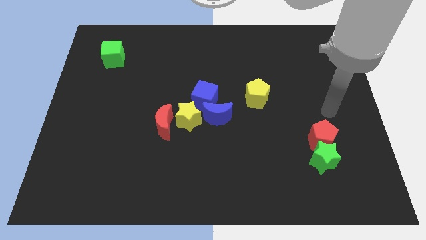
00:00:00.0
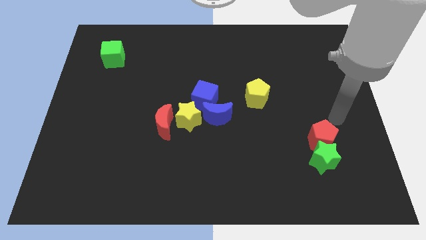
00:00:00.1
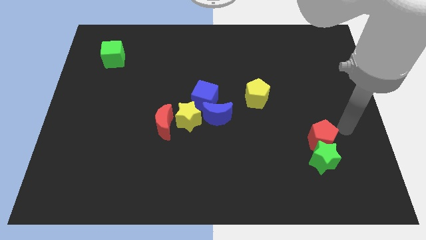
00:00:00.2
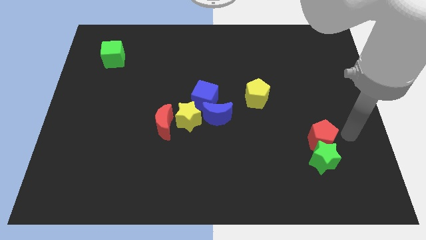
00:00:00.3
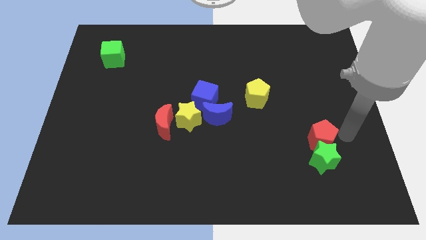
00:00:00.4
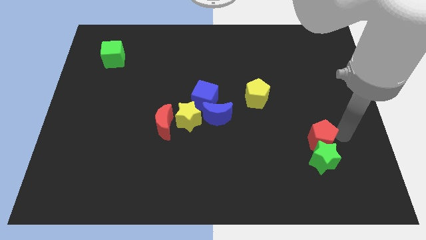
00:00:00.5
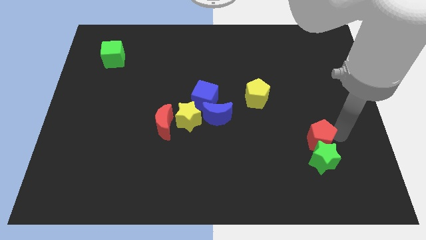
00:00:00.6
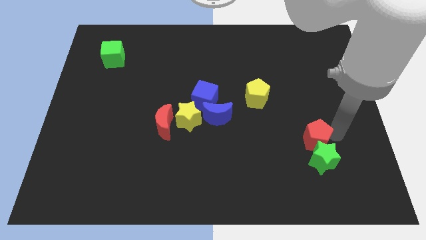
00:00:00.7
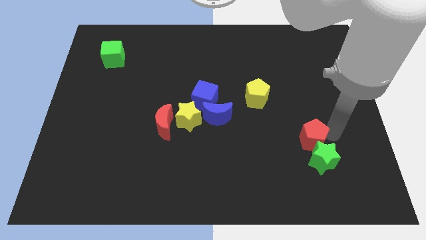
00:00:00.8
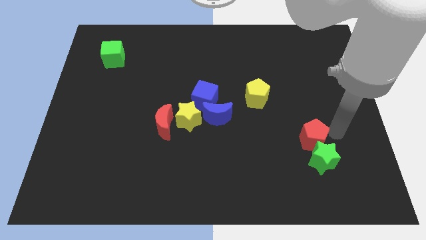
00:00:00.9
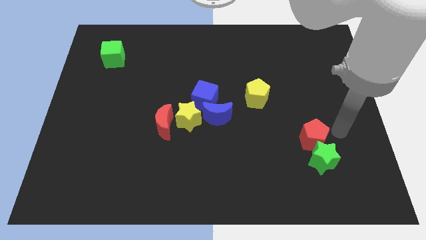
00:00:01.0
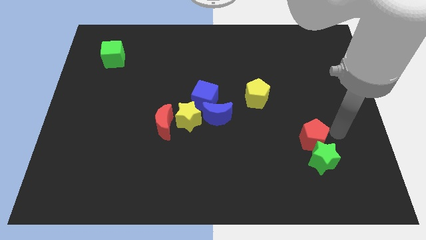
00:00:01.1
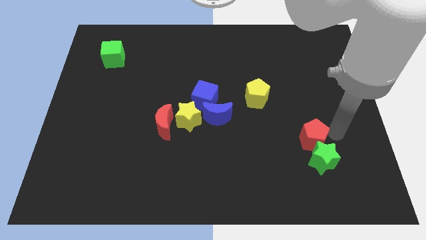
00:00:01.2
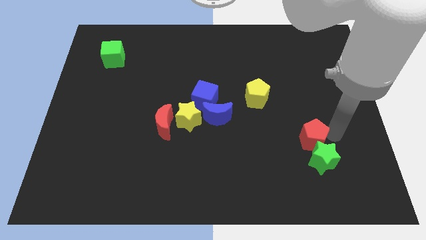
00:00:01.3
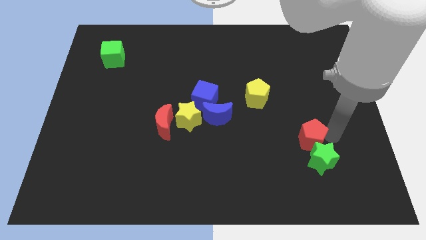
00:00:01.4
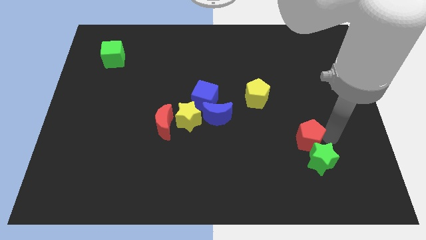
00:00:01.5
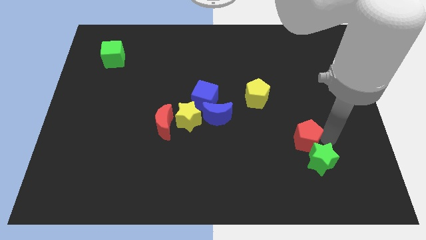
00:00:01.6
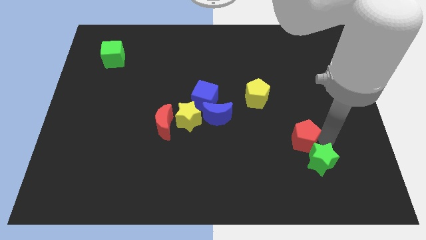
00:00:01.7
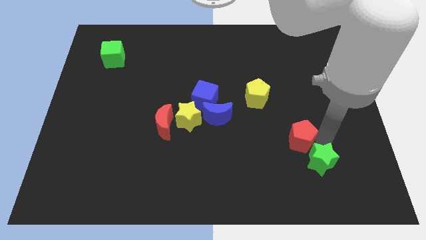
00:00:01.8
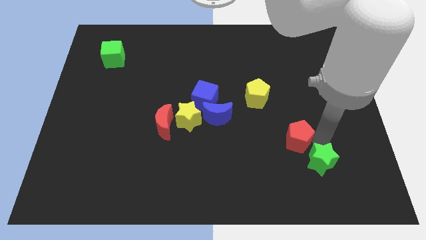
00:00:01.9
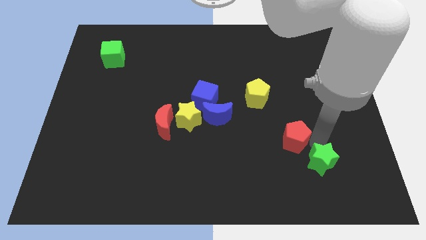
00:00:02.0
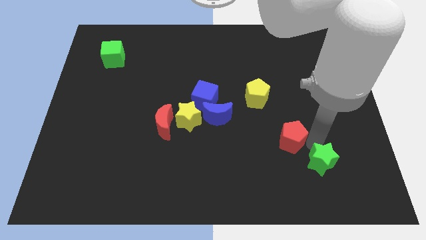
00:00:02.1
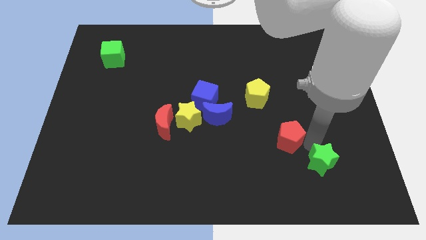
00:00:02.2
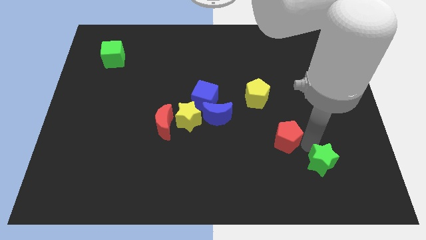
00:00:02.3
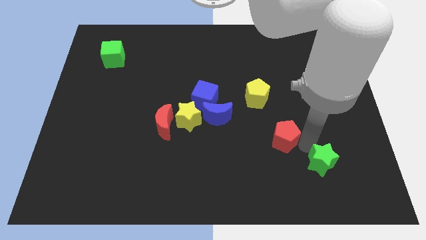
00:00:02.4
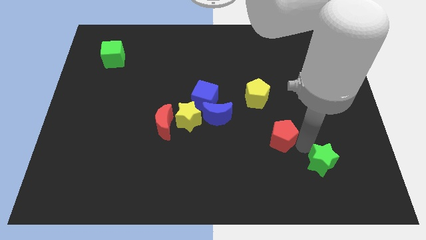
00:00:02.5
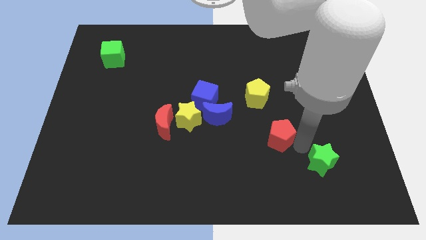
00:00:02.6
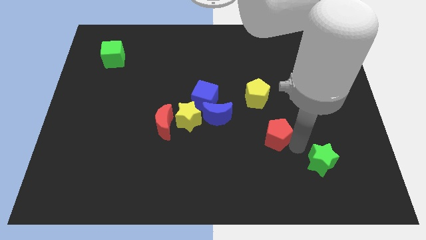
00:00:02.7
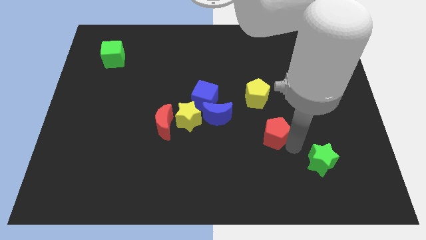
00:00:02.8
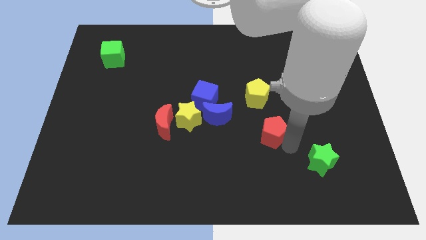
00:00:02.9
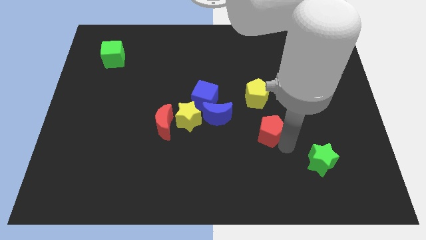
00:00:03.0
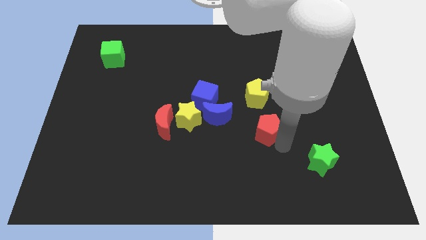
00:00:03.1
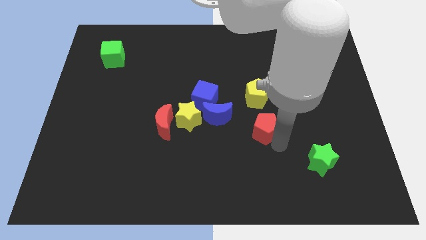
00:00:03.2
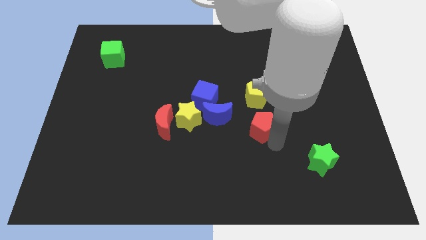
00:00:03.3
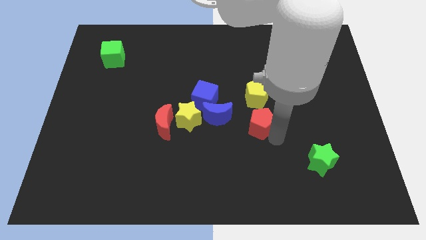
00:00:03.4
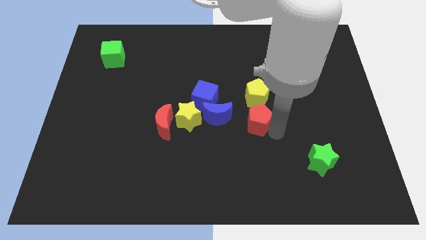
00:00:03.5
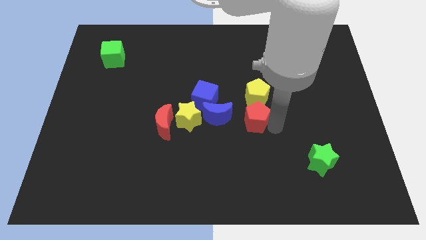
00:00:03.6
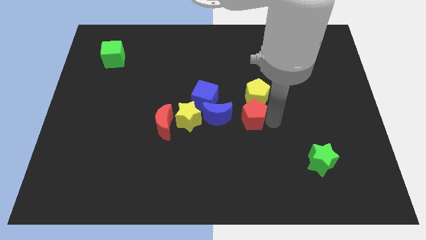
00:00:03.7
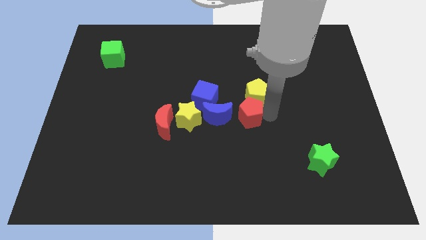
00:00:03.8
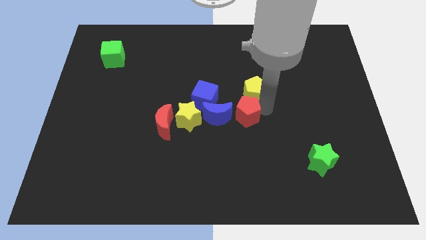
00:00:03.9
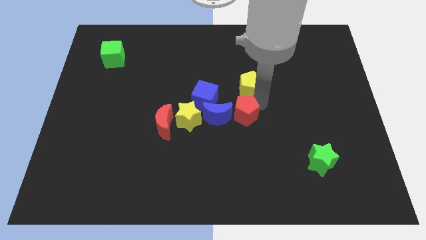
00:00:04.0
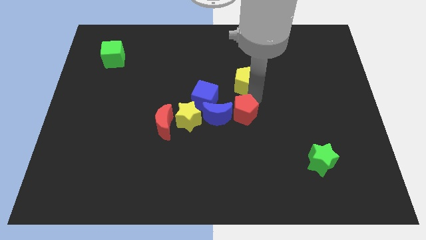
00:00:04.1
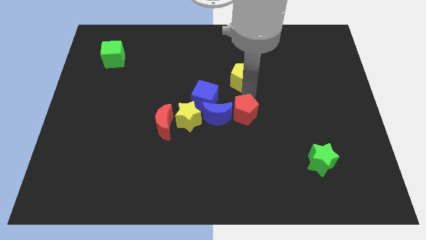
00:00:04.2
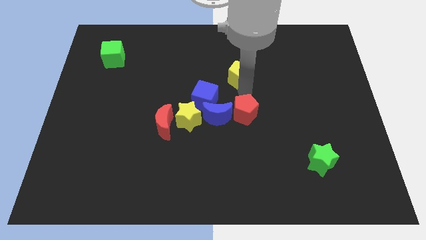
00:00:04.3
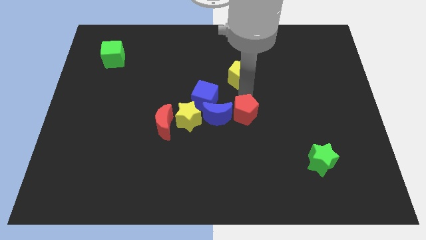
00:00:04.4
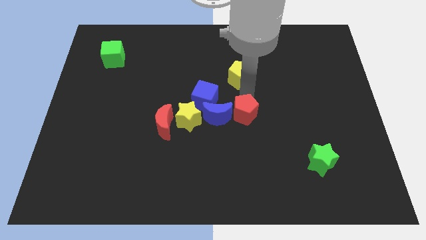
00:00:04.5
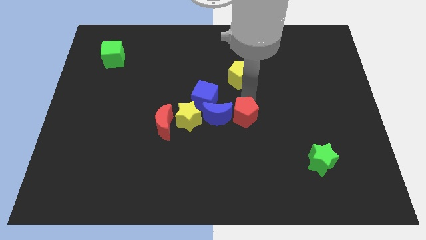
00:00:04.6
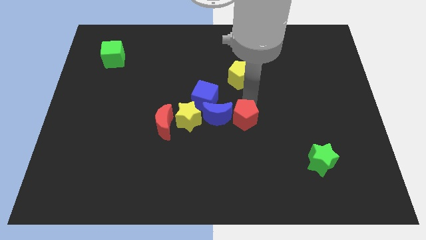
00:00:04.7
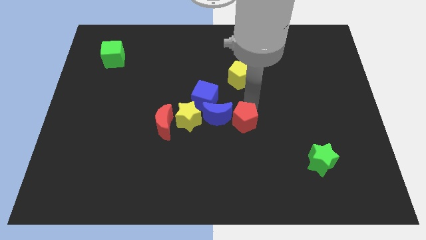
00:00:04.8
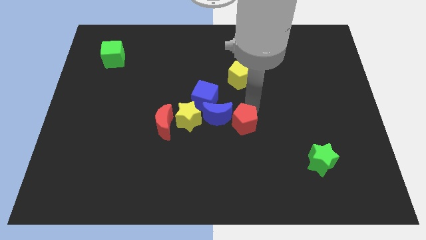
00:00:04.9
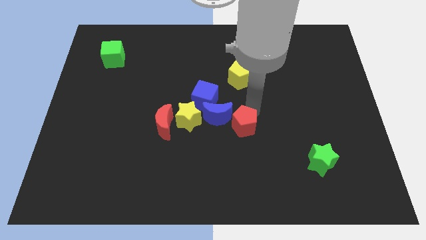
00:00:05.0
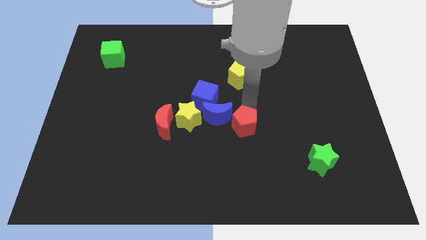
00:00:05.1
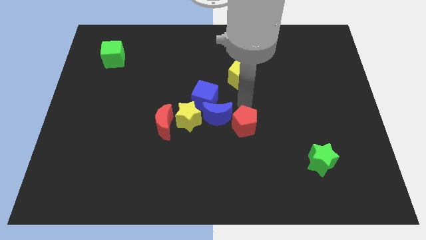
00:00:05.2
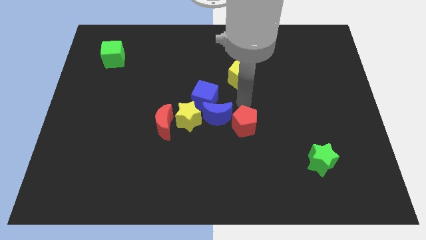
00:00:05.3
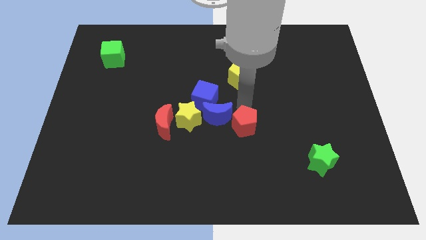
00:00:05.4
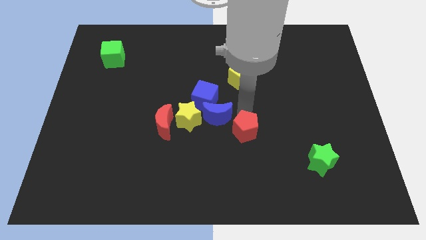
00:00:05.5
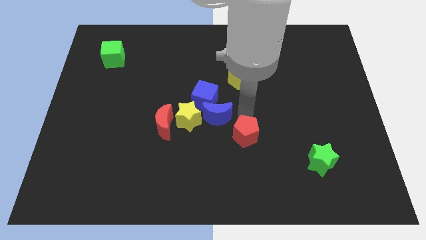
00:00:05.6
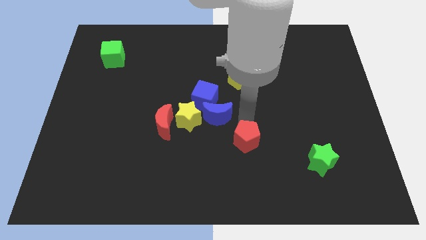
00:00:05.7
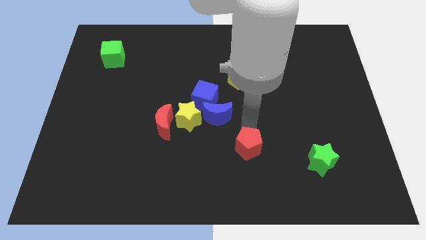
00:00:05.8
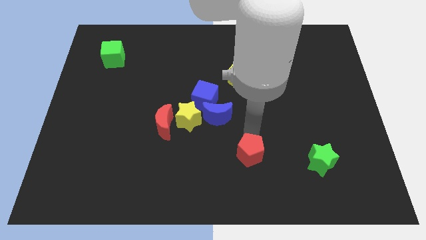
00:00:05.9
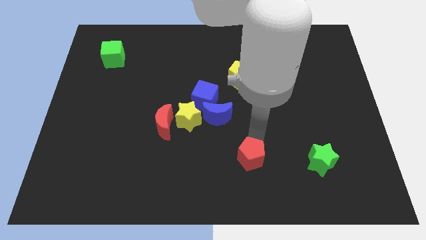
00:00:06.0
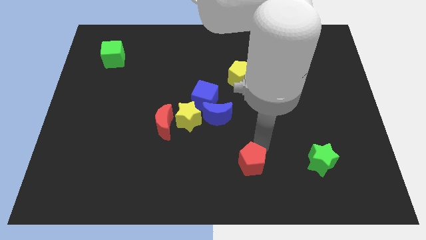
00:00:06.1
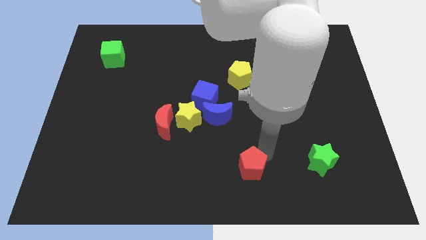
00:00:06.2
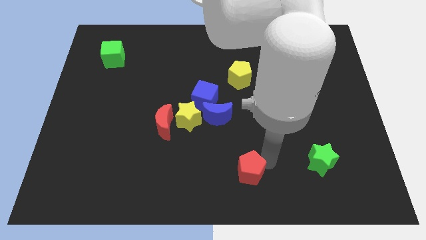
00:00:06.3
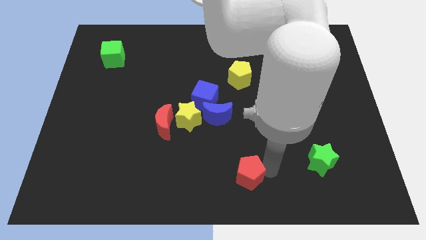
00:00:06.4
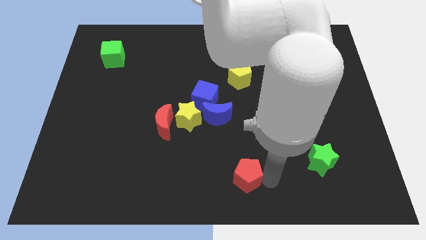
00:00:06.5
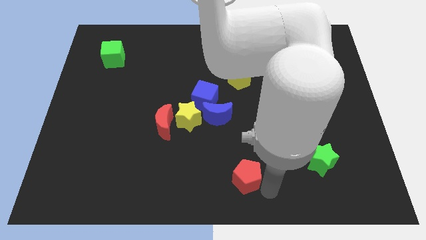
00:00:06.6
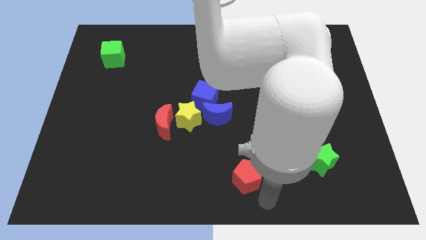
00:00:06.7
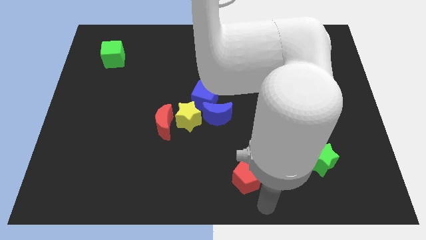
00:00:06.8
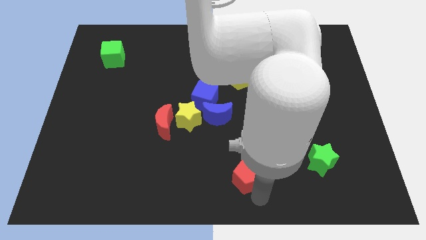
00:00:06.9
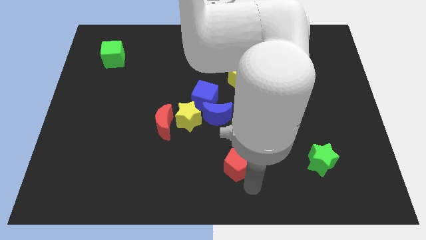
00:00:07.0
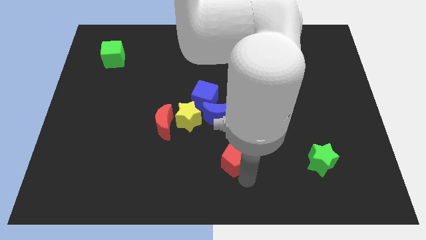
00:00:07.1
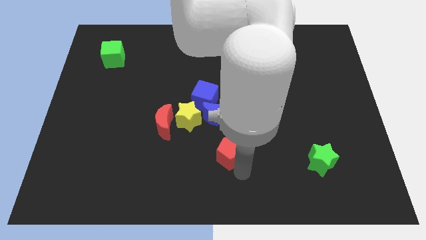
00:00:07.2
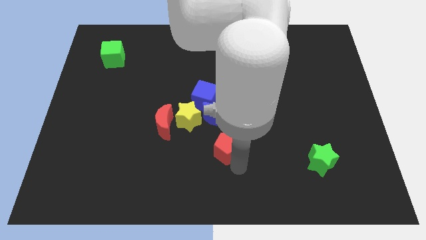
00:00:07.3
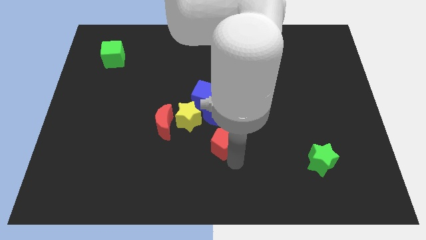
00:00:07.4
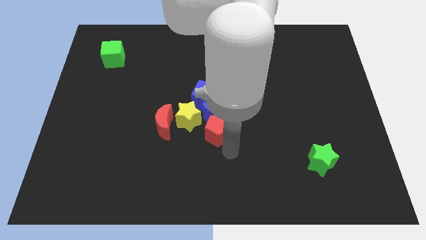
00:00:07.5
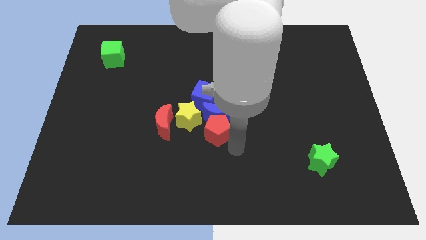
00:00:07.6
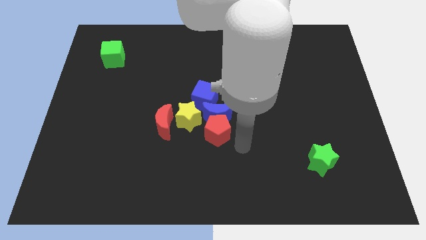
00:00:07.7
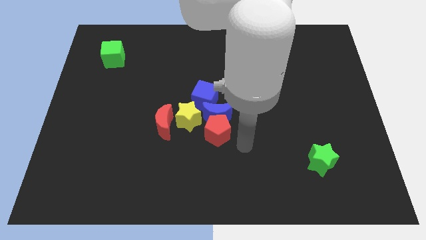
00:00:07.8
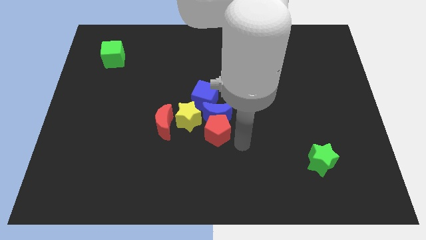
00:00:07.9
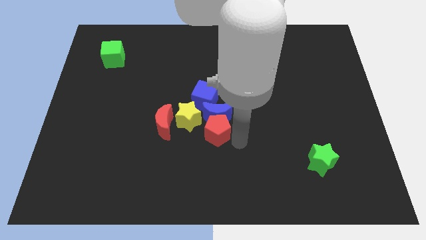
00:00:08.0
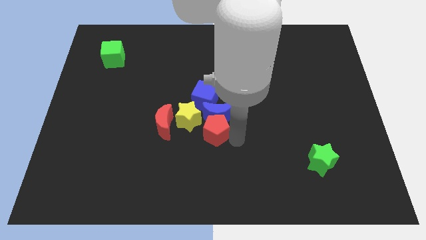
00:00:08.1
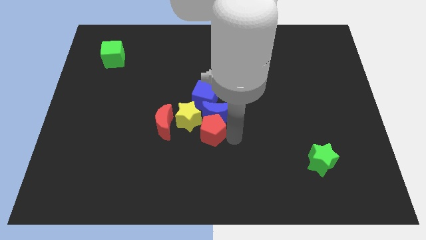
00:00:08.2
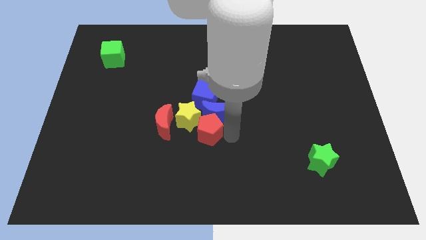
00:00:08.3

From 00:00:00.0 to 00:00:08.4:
push the red pentagon next to the yellow star
